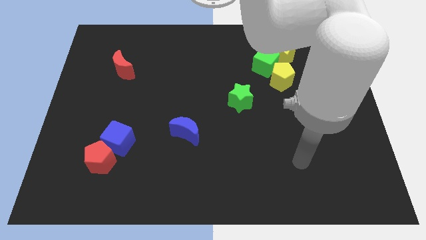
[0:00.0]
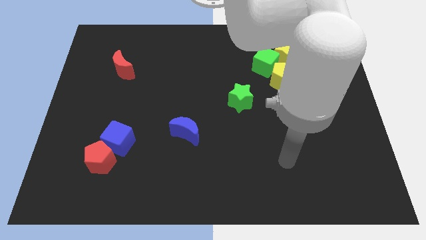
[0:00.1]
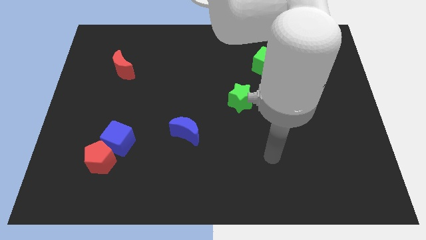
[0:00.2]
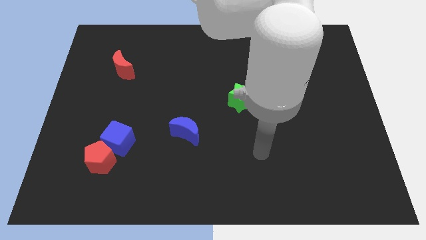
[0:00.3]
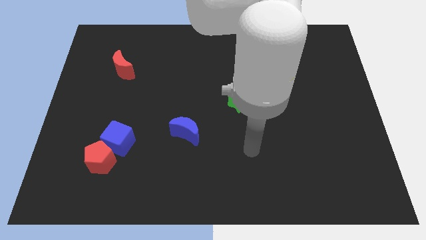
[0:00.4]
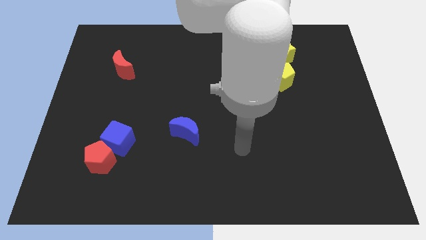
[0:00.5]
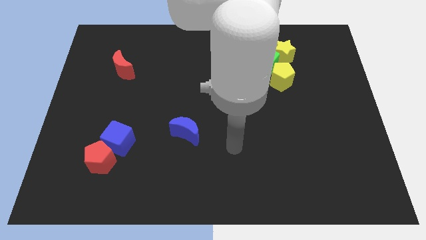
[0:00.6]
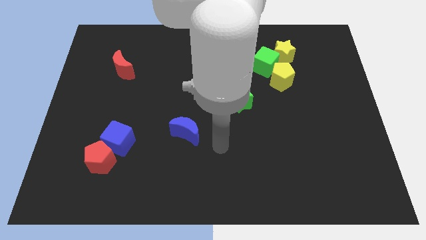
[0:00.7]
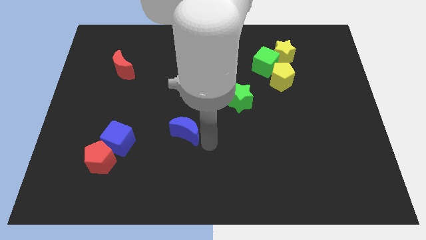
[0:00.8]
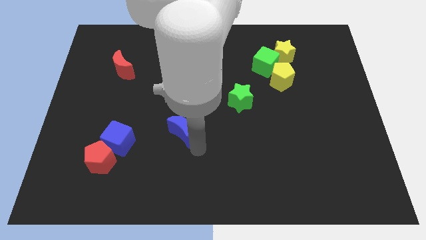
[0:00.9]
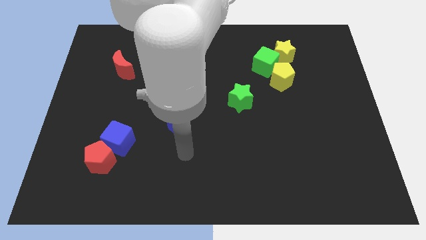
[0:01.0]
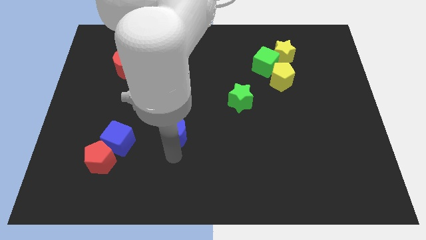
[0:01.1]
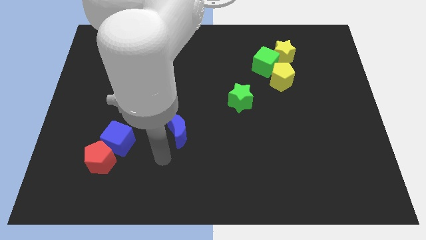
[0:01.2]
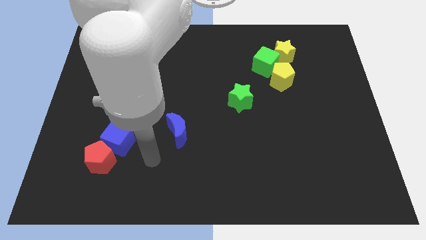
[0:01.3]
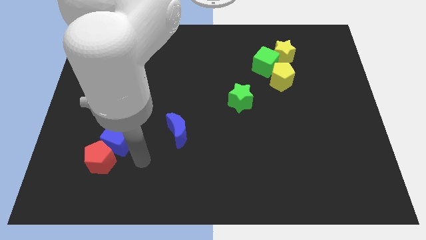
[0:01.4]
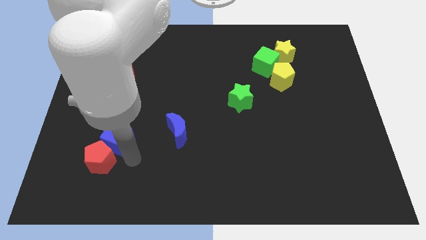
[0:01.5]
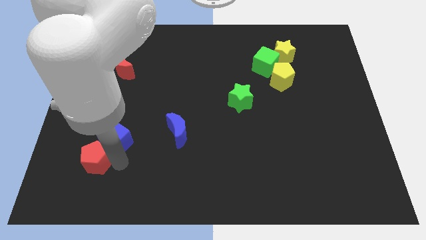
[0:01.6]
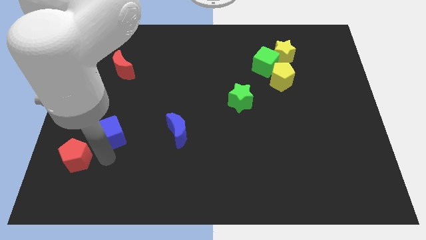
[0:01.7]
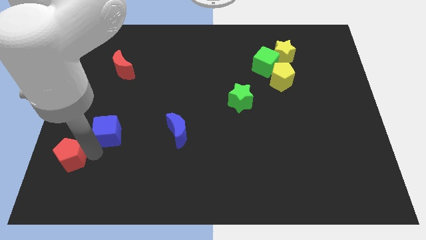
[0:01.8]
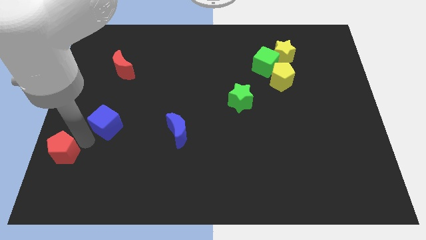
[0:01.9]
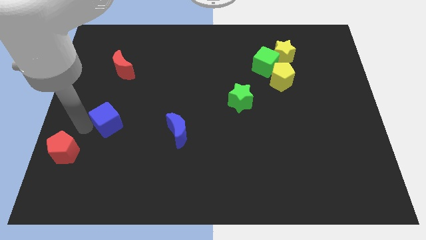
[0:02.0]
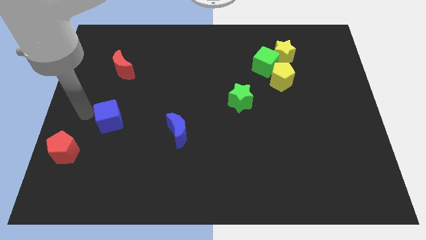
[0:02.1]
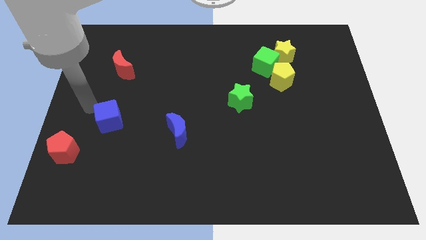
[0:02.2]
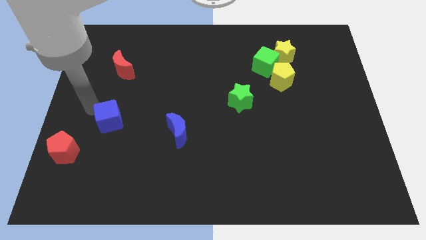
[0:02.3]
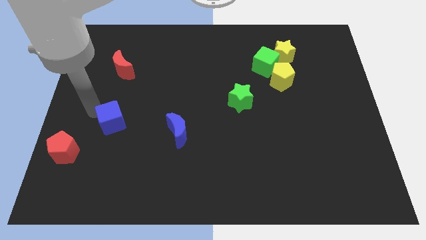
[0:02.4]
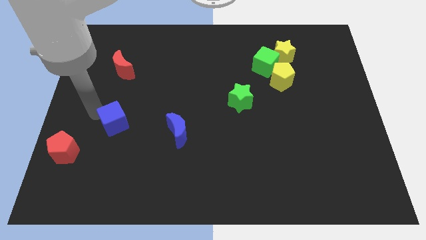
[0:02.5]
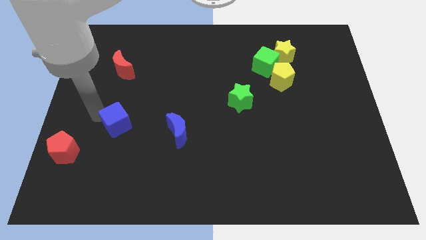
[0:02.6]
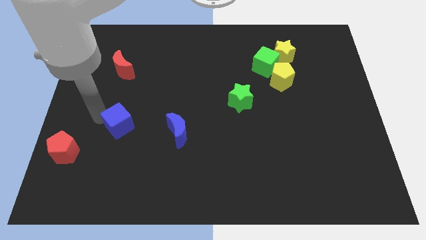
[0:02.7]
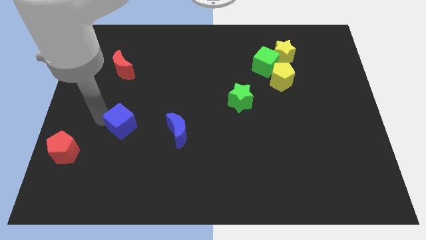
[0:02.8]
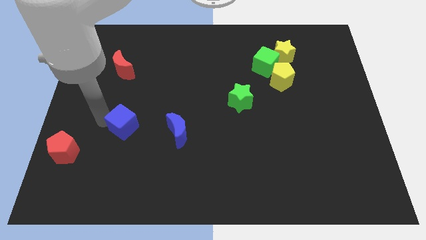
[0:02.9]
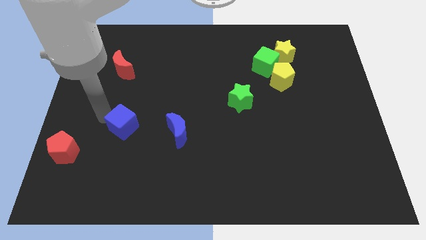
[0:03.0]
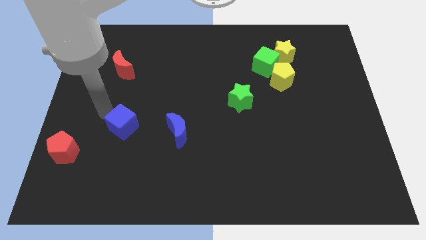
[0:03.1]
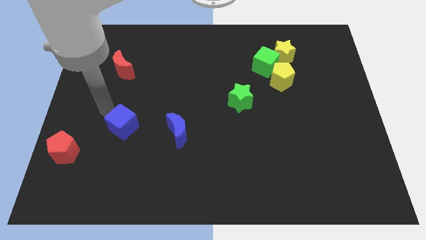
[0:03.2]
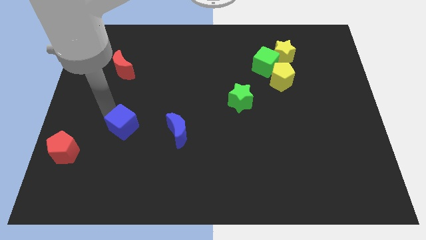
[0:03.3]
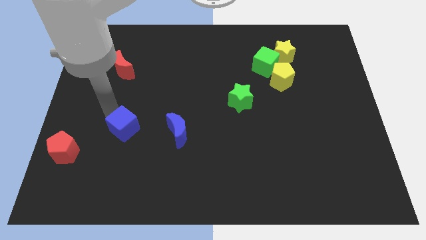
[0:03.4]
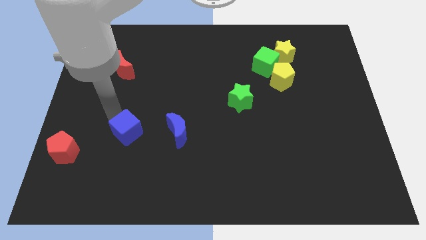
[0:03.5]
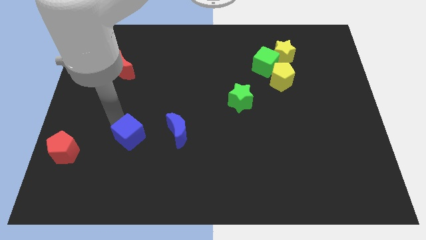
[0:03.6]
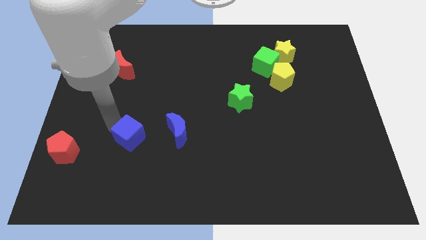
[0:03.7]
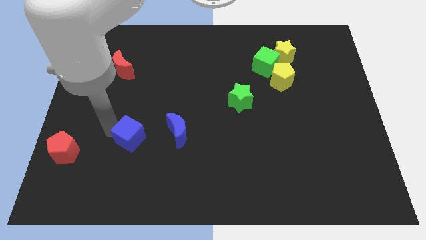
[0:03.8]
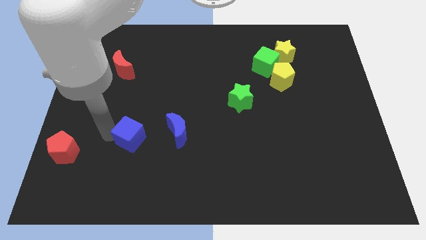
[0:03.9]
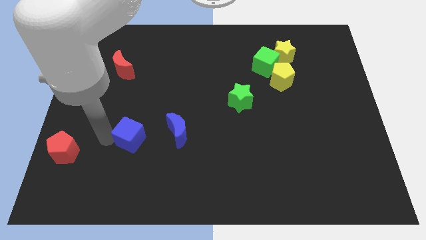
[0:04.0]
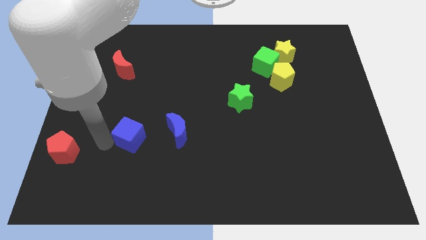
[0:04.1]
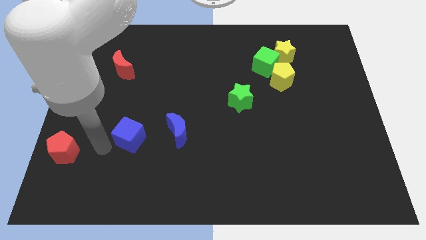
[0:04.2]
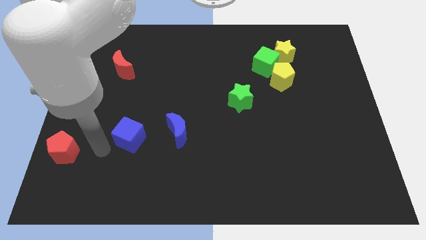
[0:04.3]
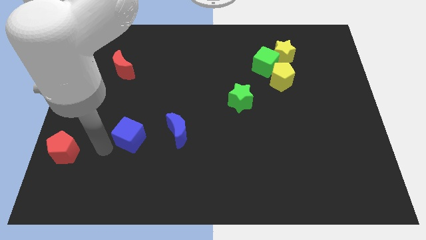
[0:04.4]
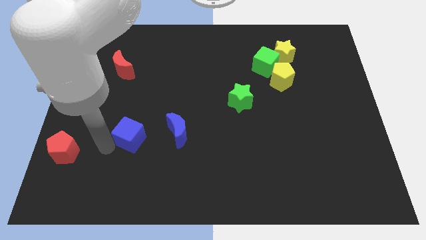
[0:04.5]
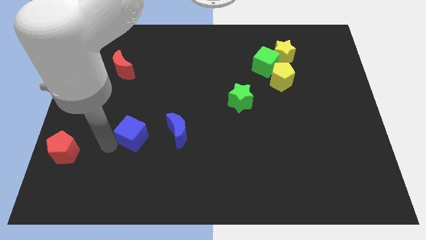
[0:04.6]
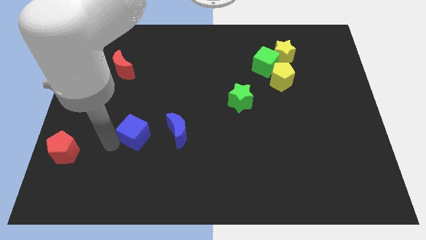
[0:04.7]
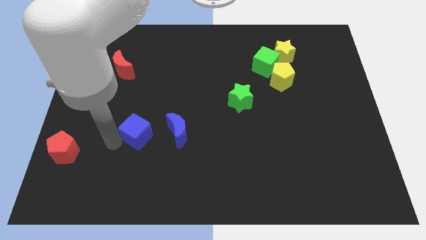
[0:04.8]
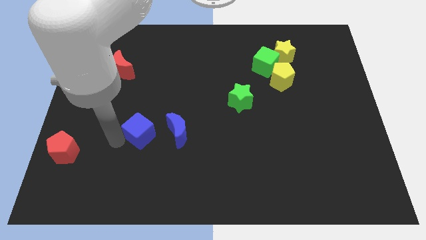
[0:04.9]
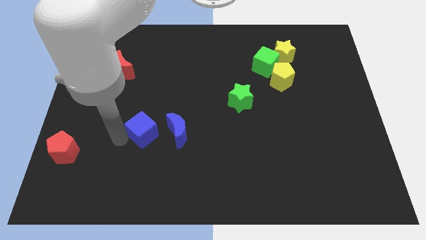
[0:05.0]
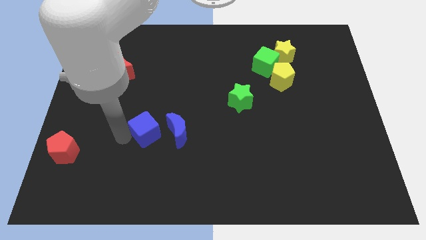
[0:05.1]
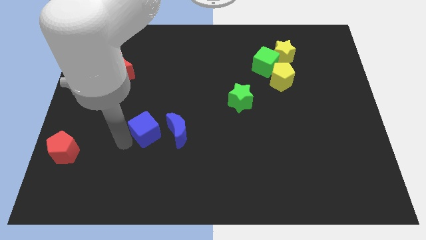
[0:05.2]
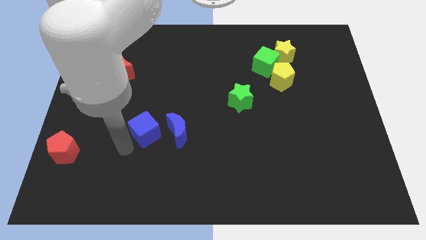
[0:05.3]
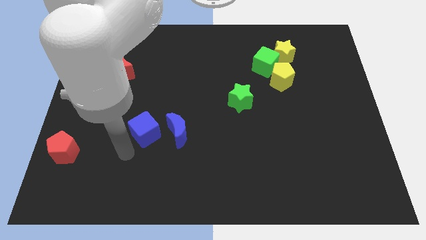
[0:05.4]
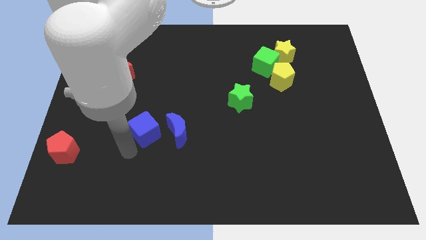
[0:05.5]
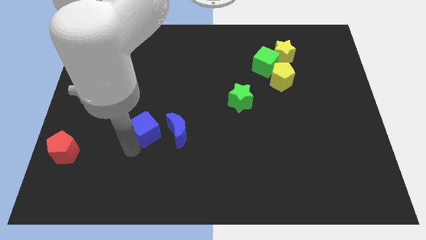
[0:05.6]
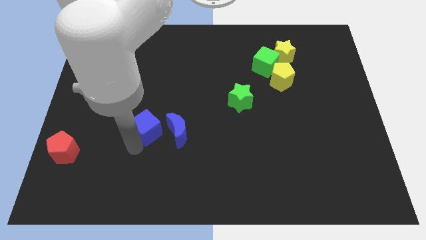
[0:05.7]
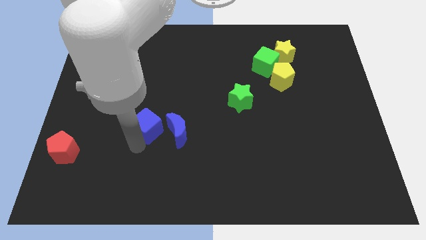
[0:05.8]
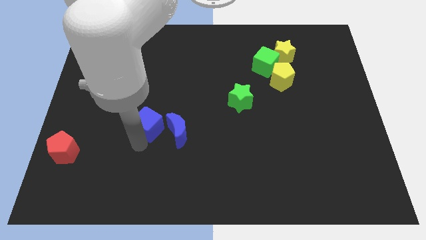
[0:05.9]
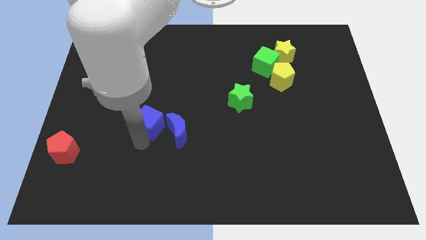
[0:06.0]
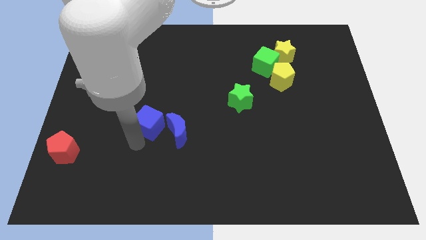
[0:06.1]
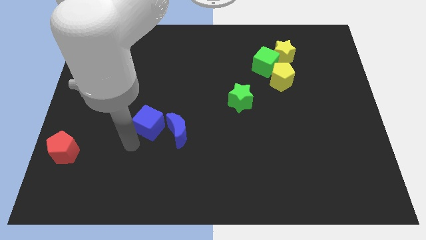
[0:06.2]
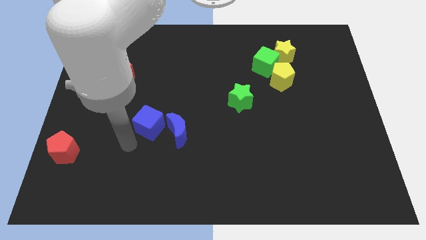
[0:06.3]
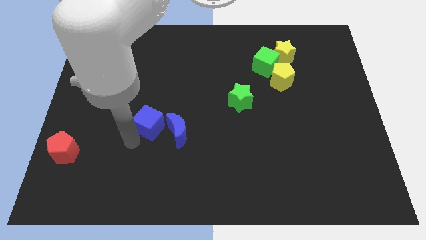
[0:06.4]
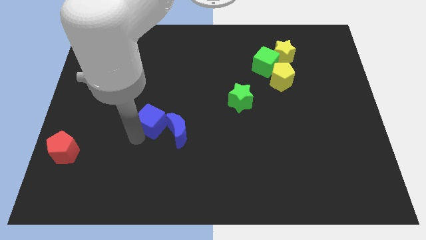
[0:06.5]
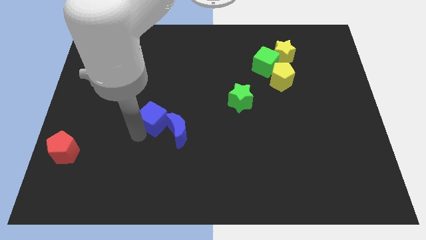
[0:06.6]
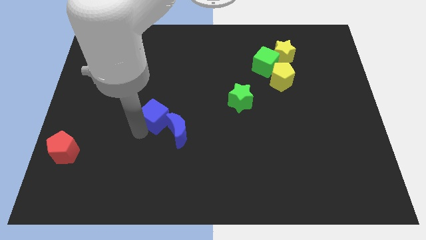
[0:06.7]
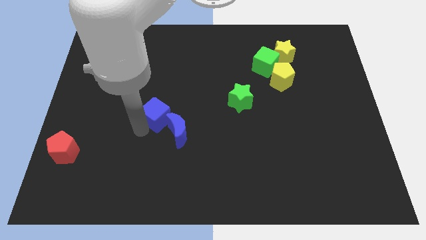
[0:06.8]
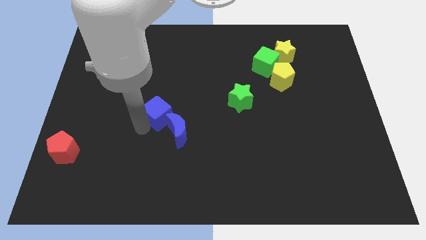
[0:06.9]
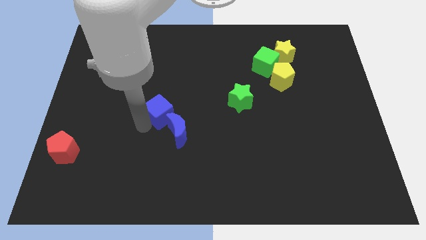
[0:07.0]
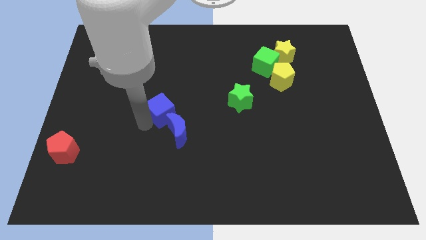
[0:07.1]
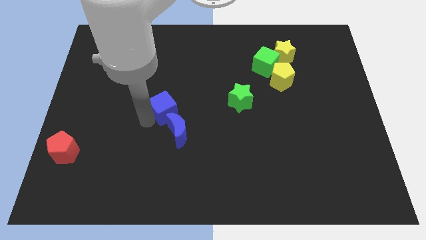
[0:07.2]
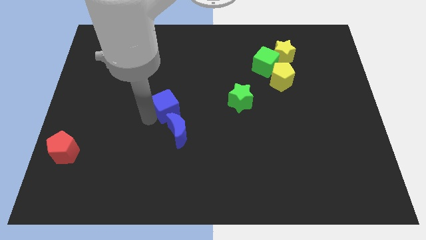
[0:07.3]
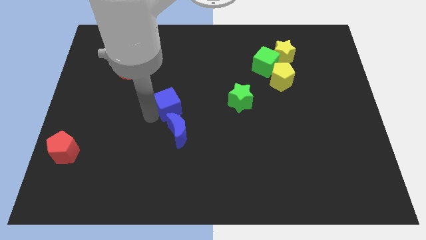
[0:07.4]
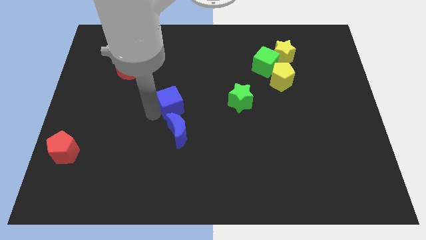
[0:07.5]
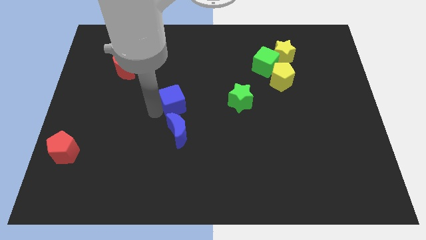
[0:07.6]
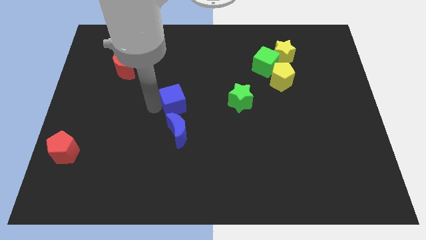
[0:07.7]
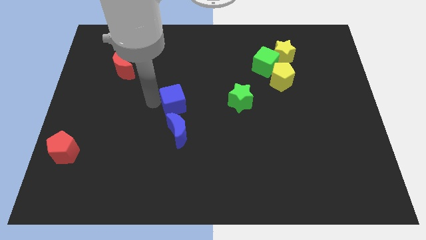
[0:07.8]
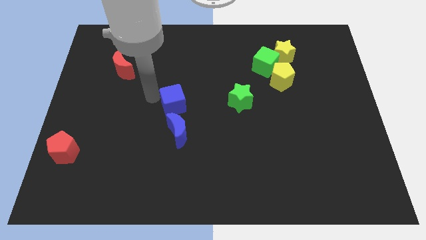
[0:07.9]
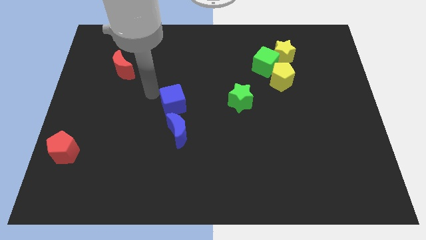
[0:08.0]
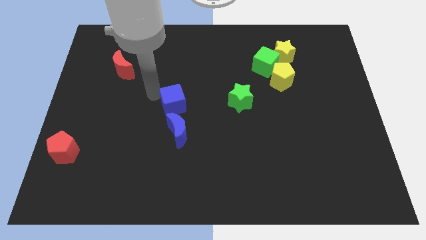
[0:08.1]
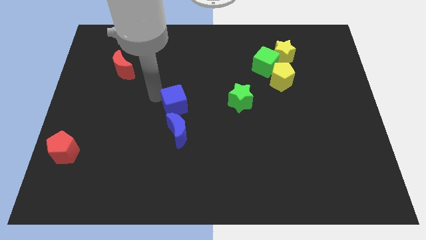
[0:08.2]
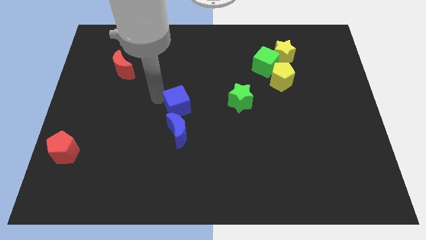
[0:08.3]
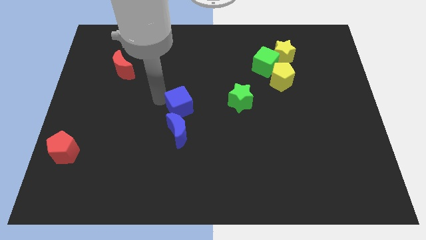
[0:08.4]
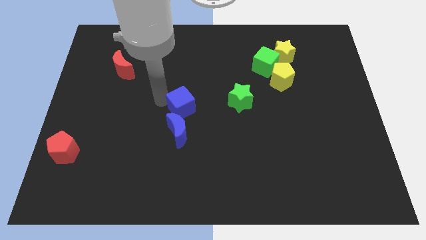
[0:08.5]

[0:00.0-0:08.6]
put the blue cube to the top right side of the blue moon
